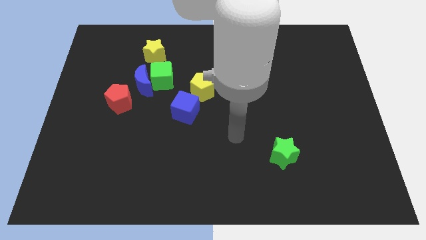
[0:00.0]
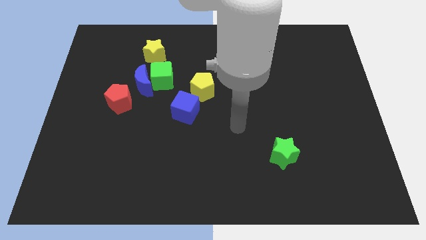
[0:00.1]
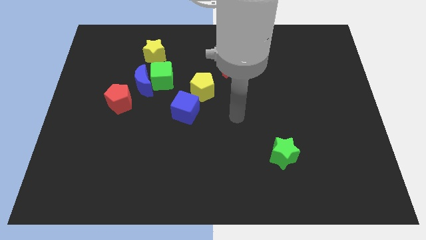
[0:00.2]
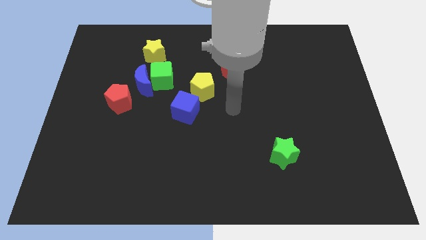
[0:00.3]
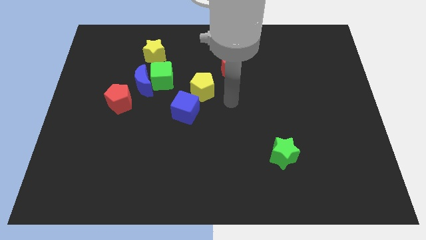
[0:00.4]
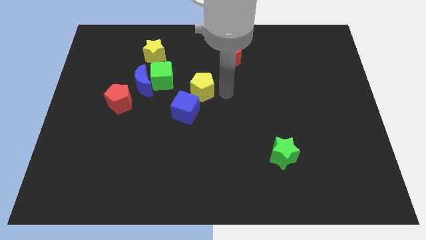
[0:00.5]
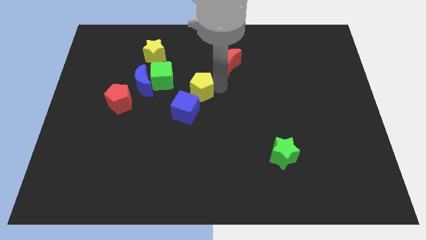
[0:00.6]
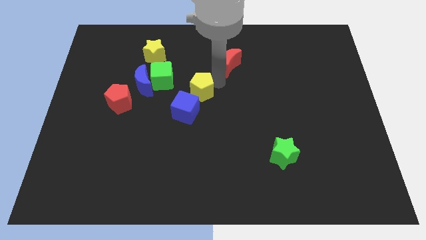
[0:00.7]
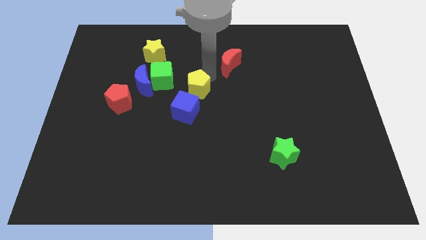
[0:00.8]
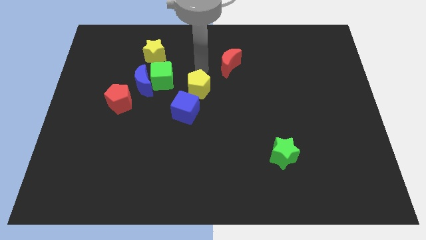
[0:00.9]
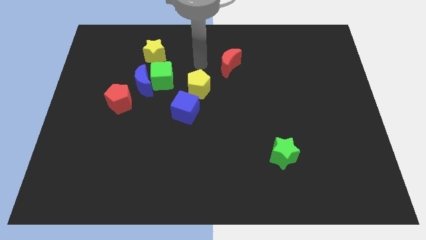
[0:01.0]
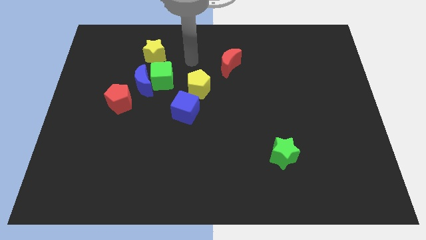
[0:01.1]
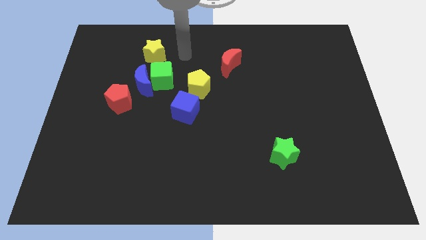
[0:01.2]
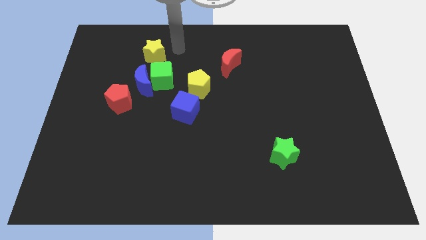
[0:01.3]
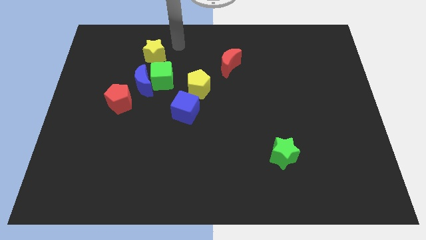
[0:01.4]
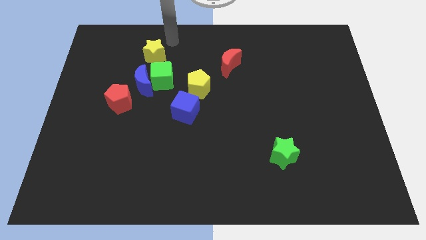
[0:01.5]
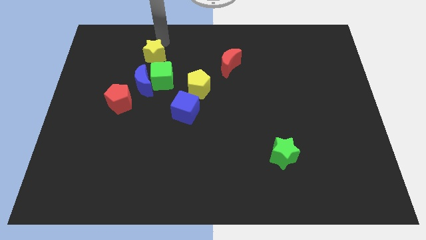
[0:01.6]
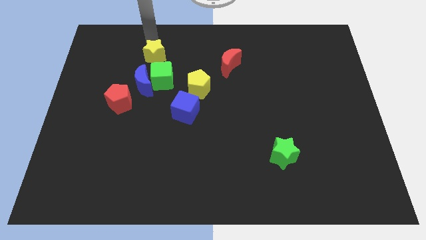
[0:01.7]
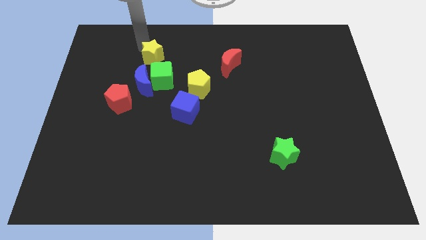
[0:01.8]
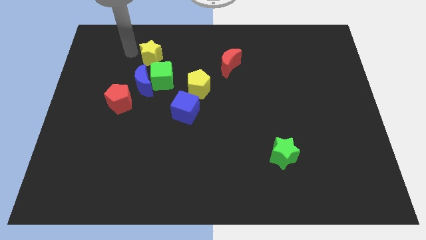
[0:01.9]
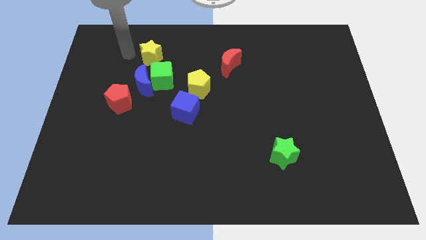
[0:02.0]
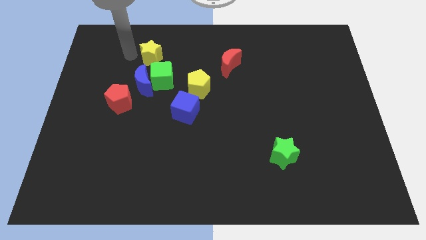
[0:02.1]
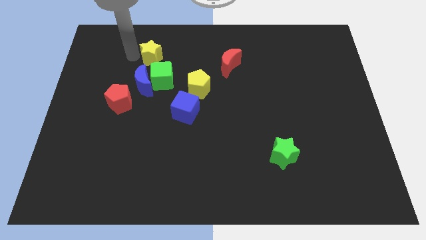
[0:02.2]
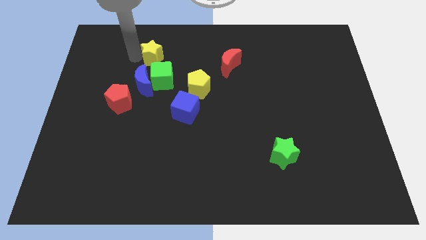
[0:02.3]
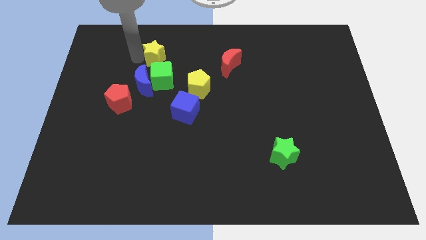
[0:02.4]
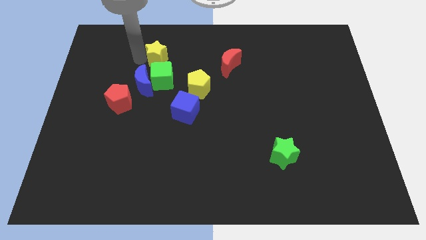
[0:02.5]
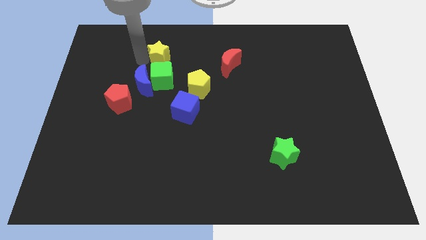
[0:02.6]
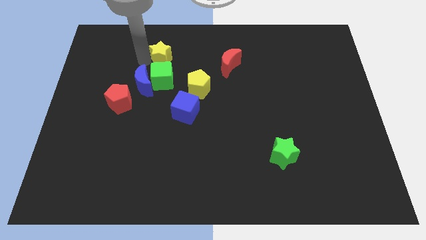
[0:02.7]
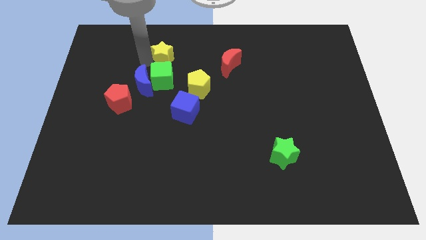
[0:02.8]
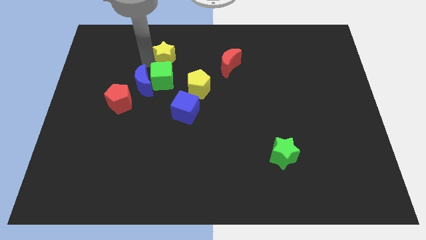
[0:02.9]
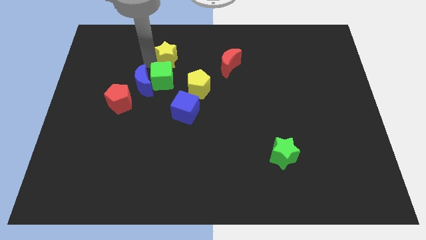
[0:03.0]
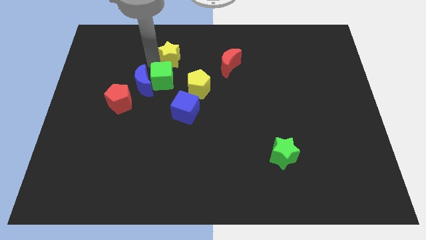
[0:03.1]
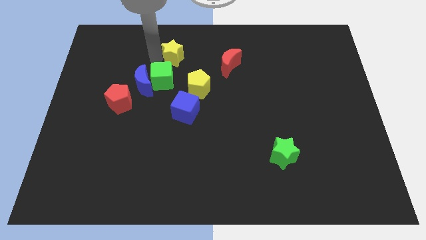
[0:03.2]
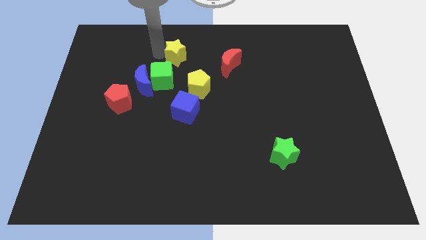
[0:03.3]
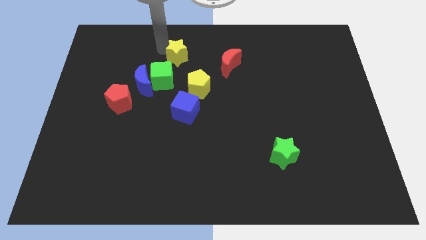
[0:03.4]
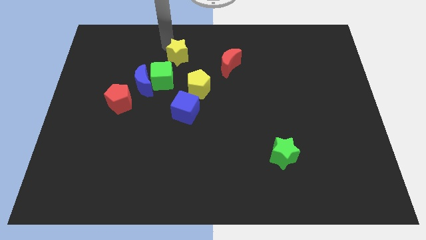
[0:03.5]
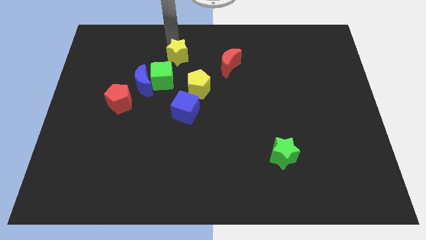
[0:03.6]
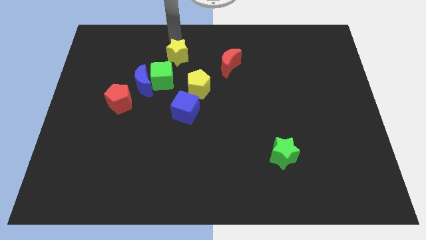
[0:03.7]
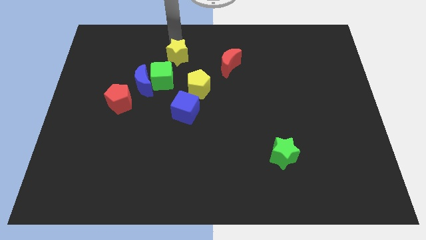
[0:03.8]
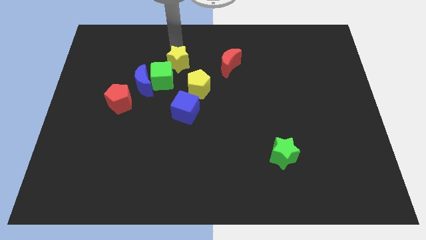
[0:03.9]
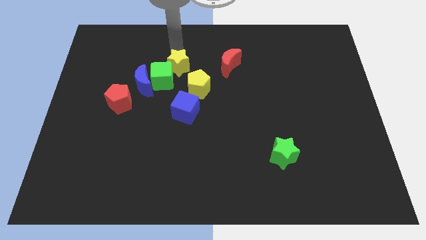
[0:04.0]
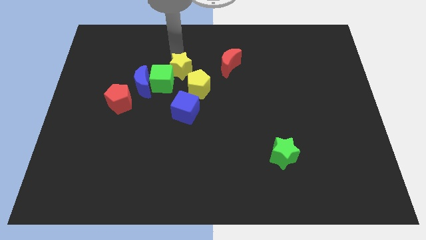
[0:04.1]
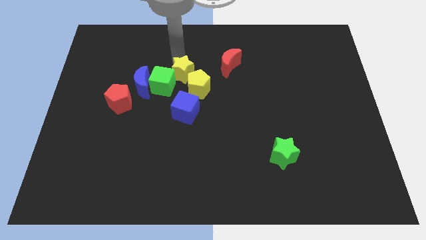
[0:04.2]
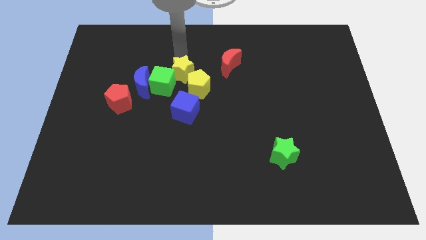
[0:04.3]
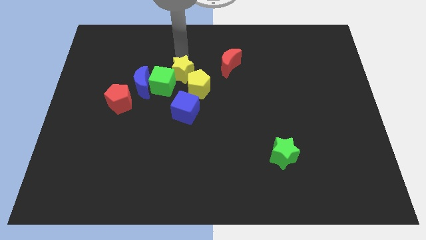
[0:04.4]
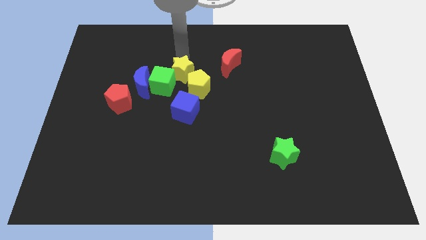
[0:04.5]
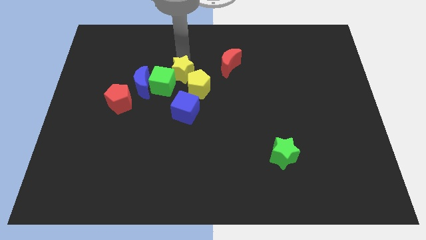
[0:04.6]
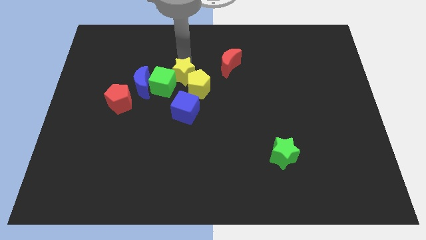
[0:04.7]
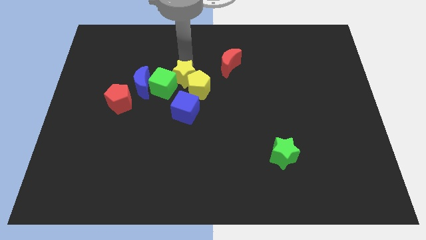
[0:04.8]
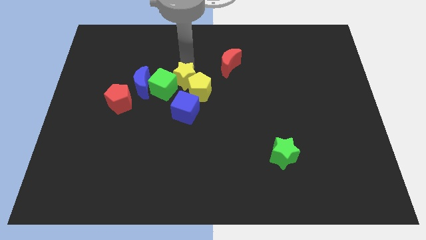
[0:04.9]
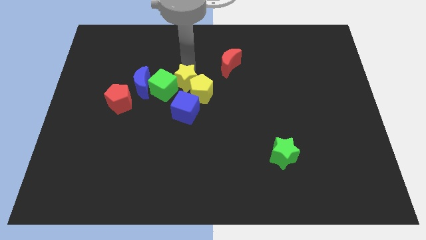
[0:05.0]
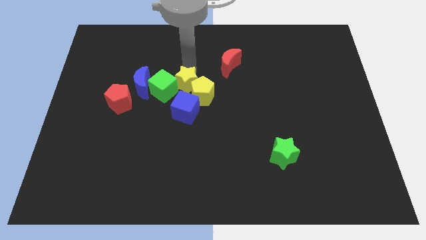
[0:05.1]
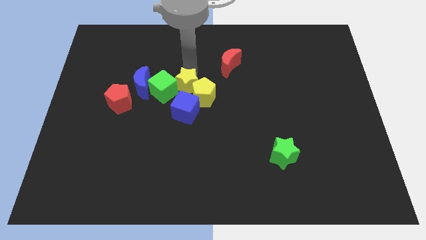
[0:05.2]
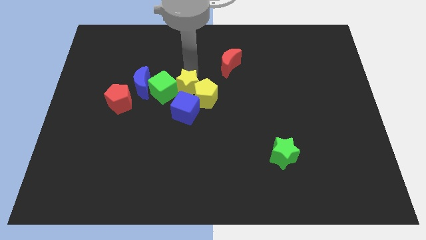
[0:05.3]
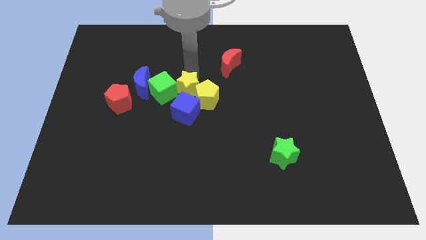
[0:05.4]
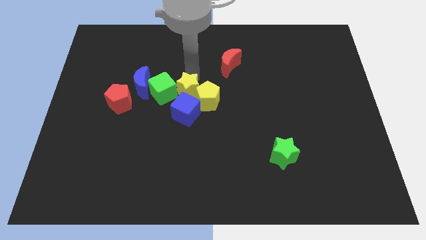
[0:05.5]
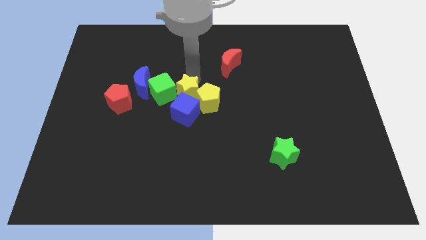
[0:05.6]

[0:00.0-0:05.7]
move the yellow star towards the blue cube

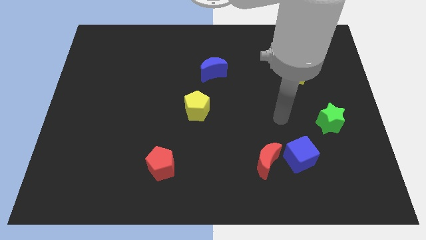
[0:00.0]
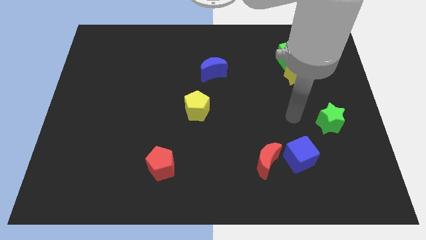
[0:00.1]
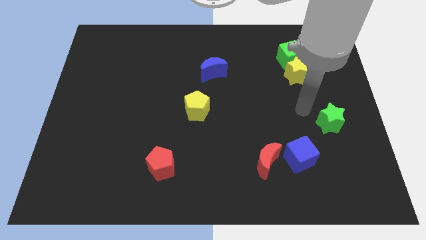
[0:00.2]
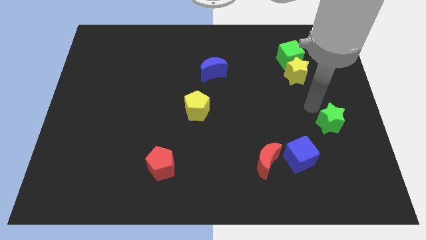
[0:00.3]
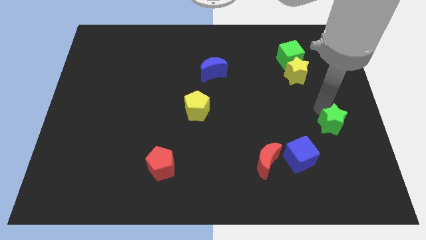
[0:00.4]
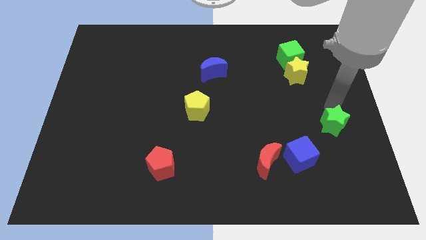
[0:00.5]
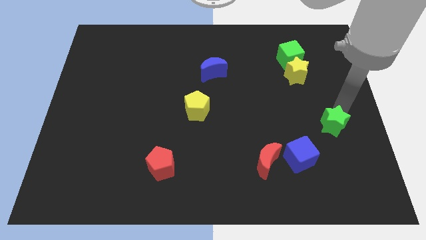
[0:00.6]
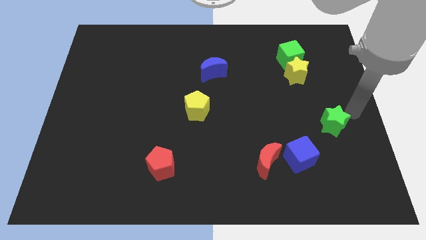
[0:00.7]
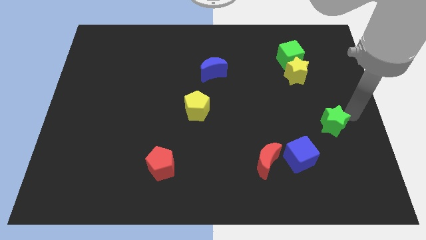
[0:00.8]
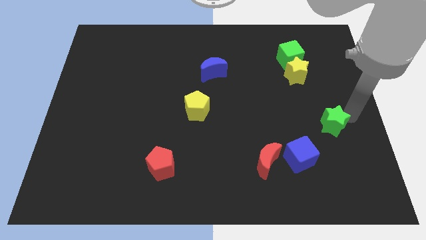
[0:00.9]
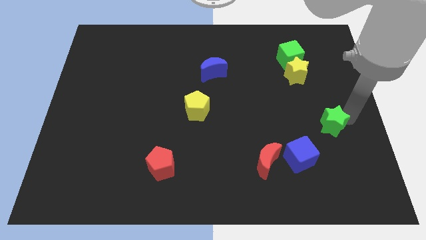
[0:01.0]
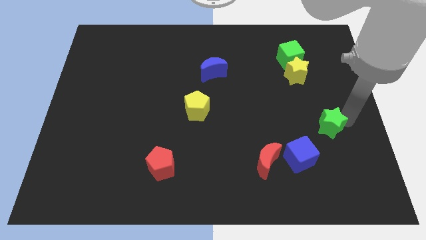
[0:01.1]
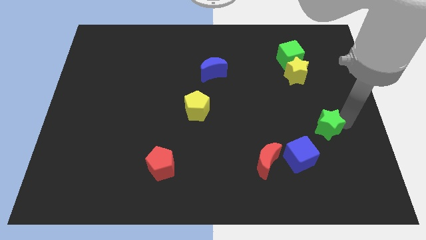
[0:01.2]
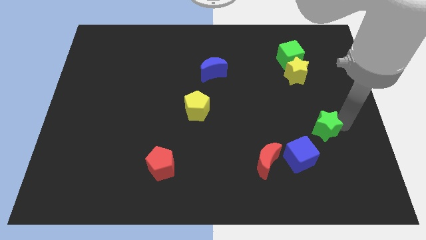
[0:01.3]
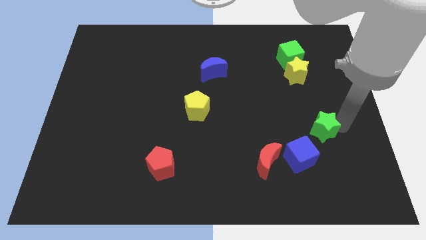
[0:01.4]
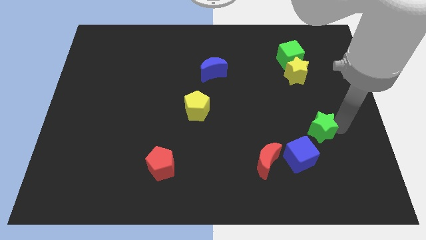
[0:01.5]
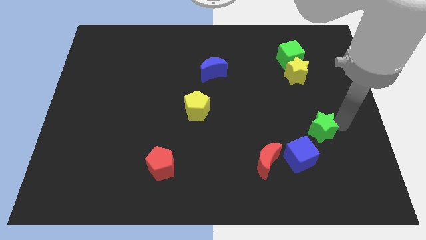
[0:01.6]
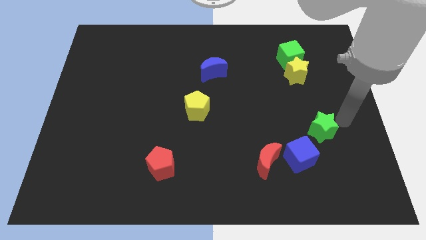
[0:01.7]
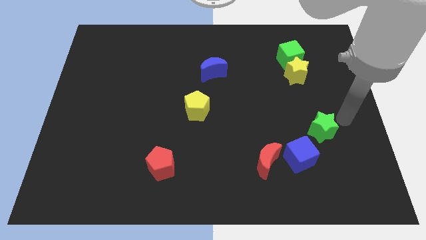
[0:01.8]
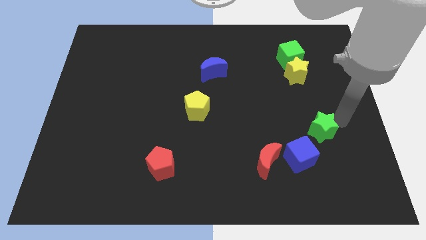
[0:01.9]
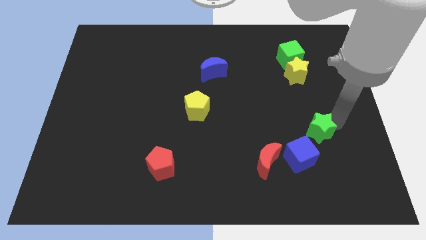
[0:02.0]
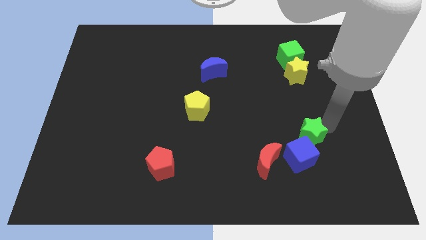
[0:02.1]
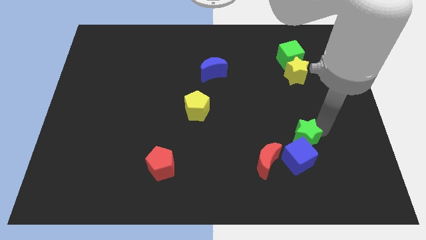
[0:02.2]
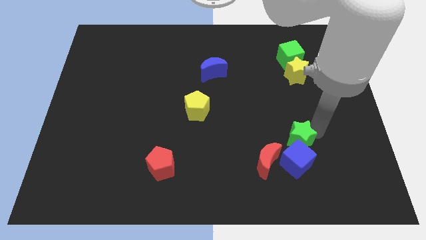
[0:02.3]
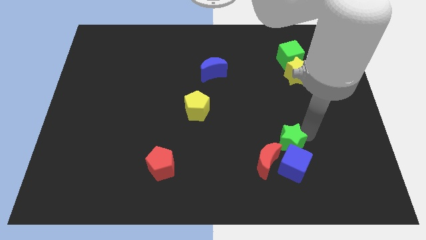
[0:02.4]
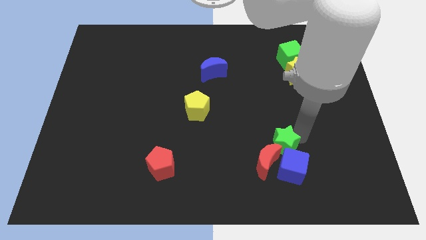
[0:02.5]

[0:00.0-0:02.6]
slide the green star to the red moon
